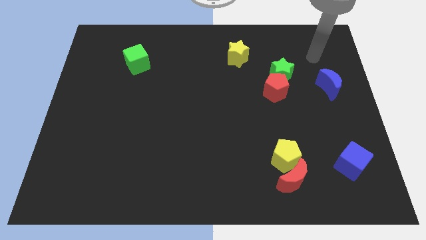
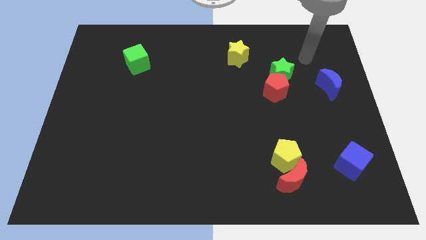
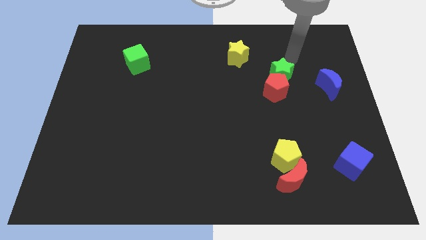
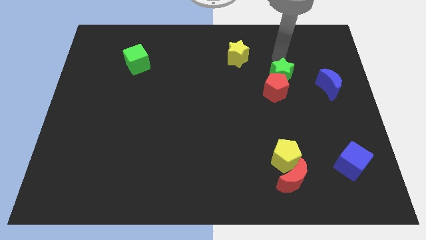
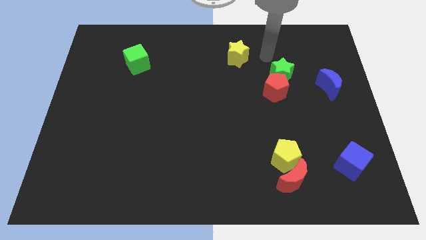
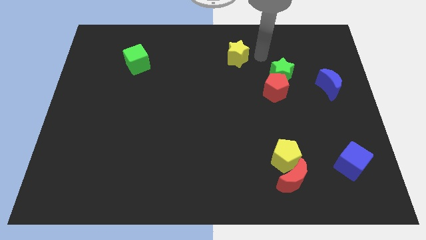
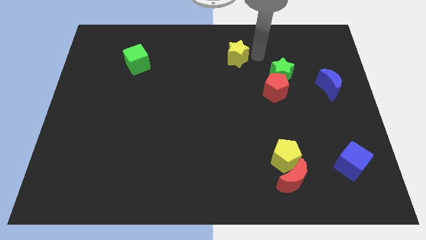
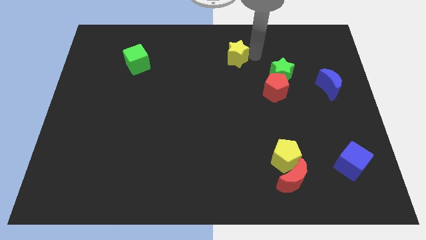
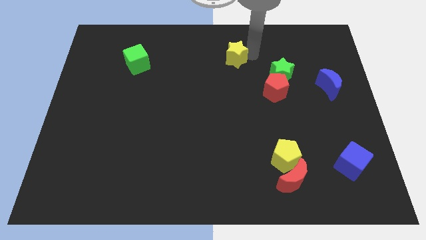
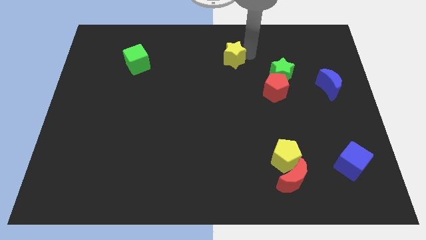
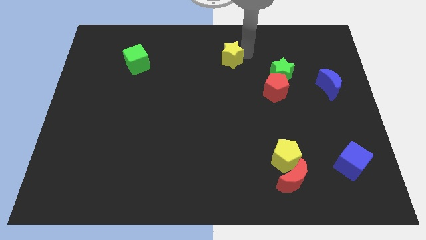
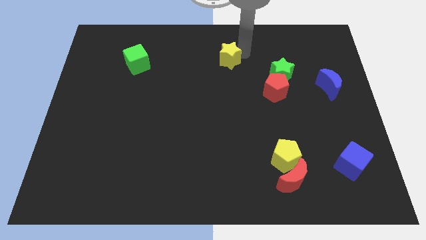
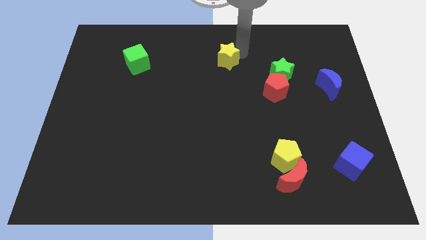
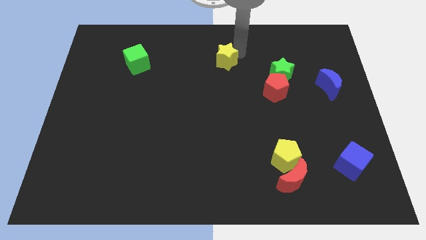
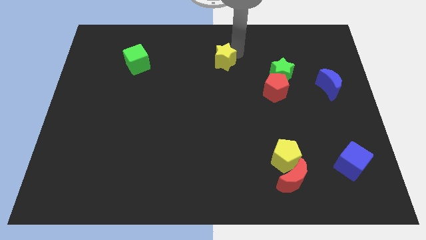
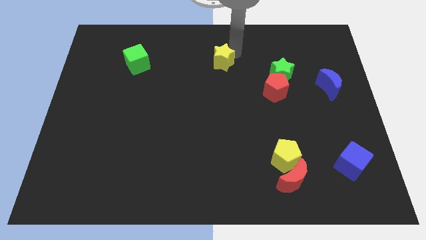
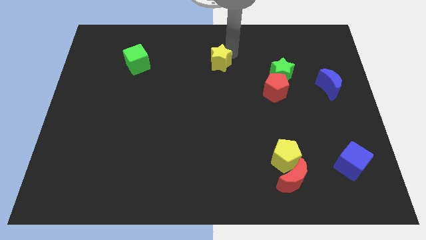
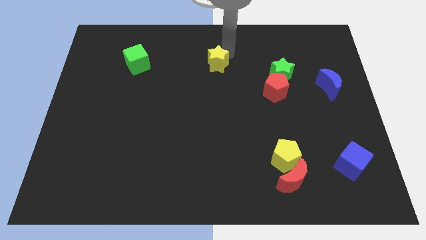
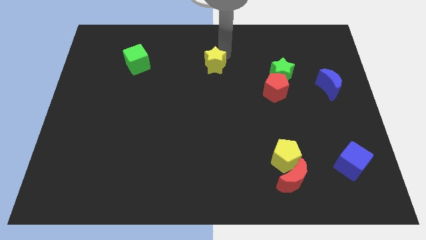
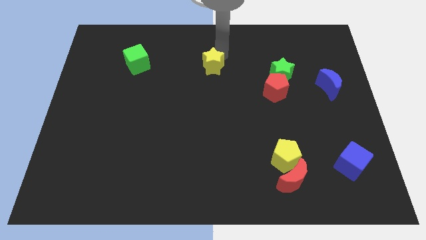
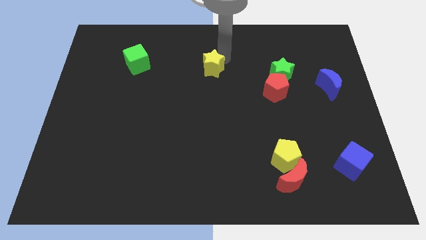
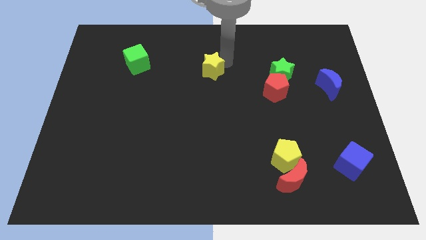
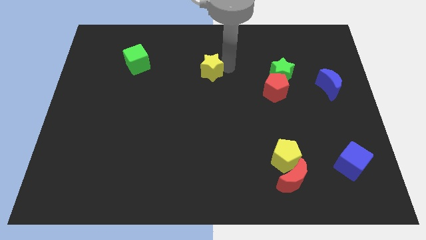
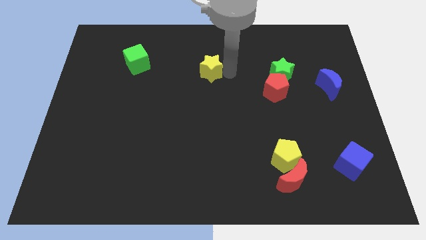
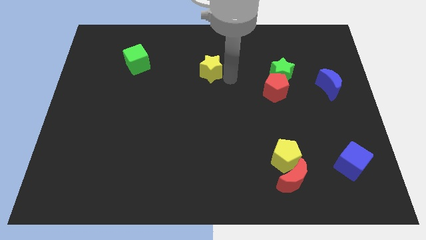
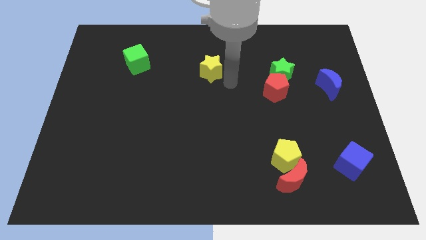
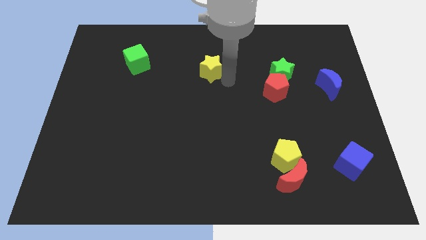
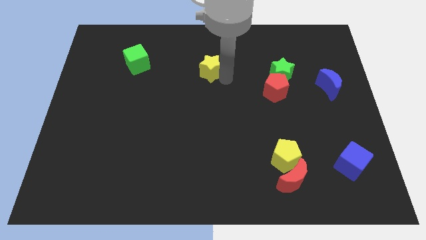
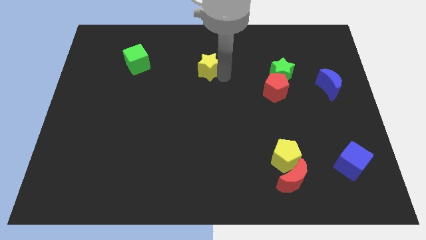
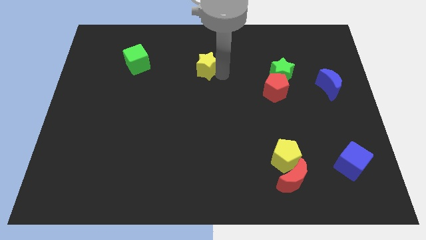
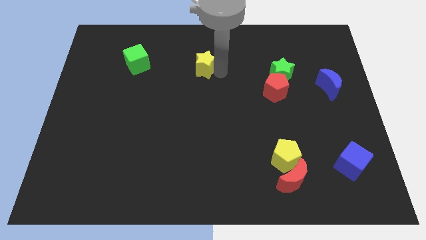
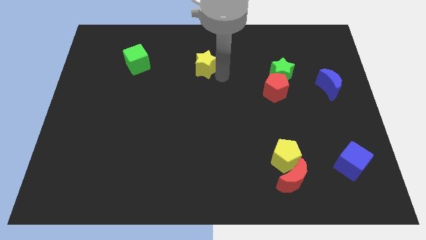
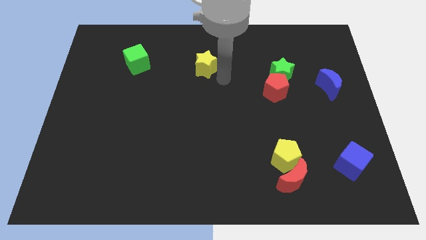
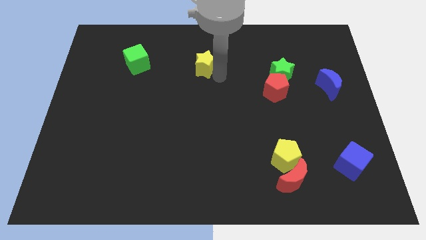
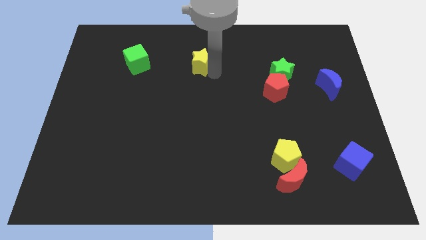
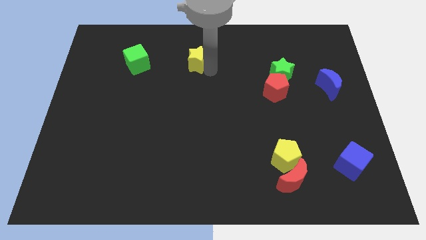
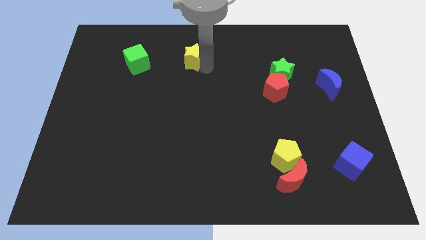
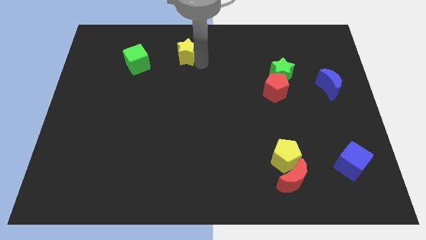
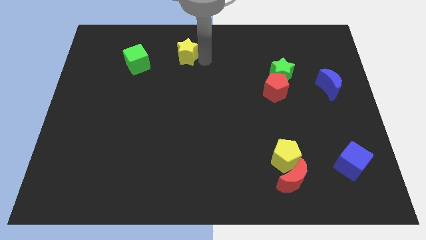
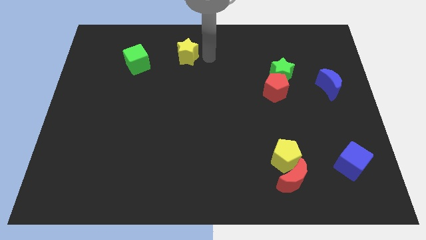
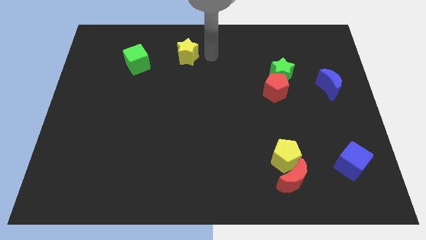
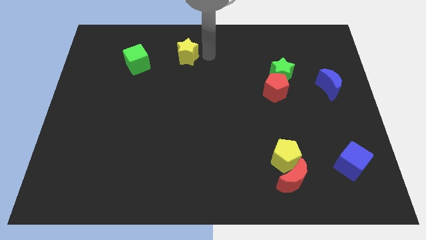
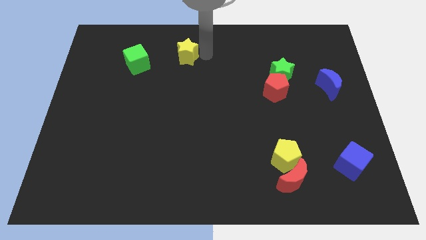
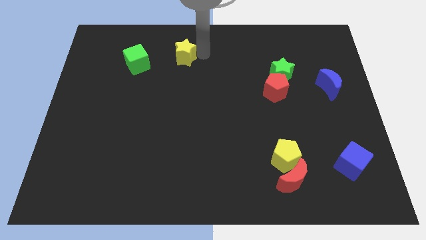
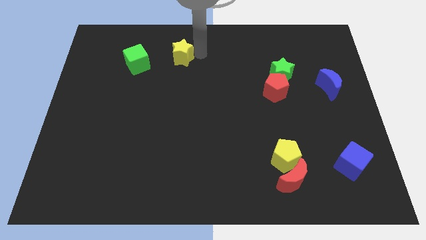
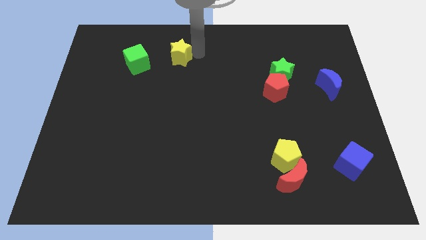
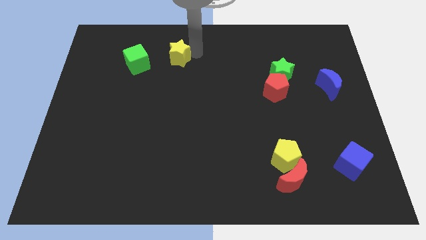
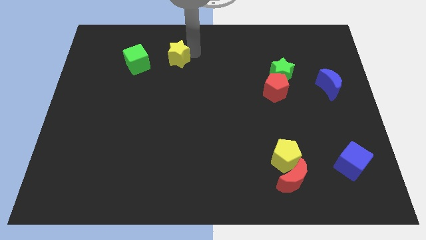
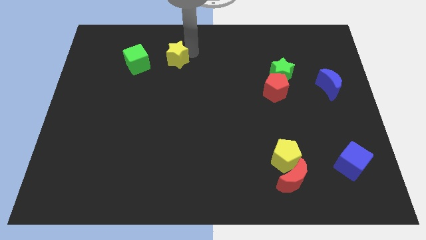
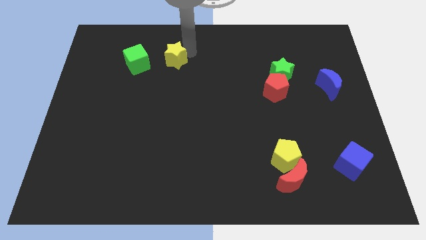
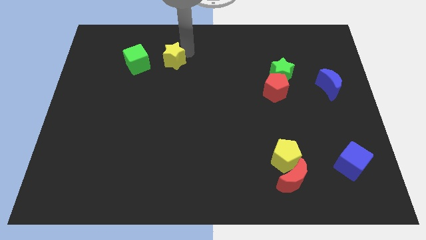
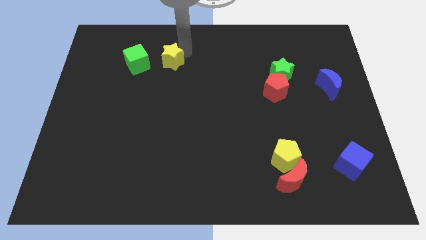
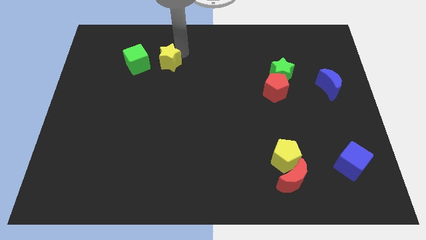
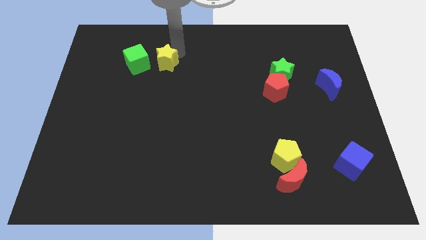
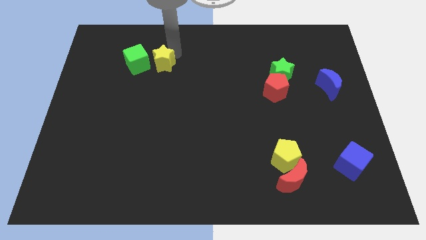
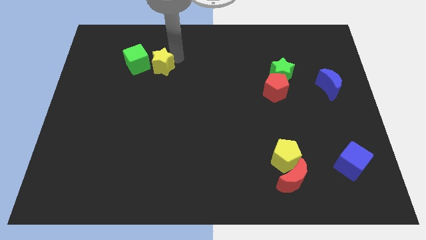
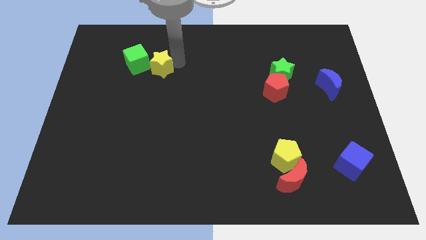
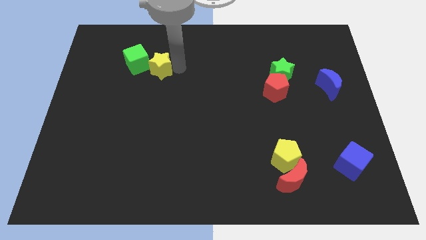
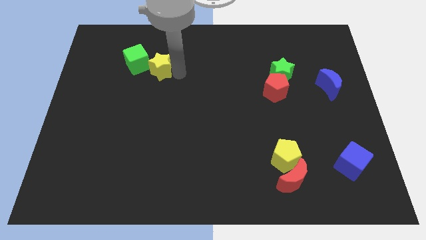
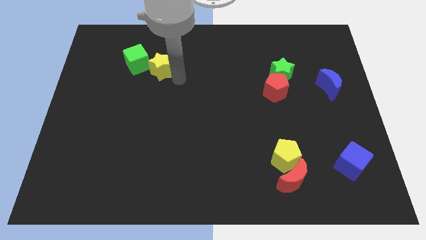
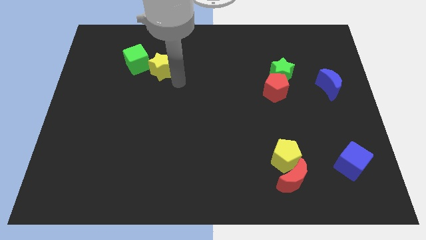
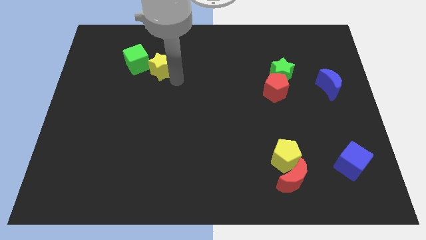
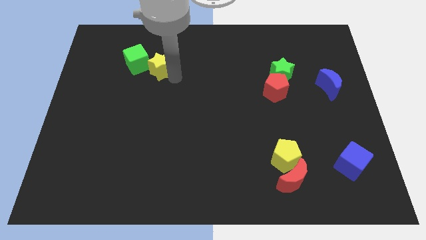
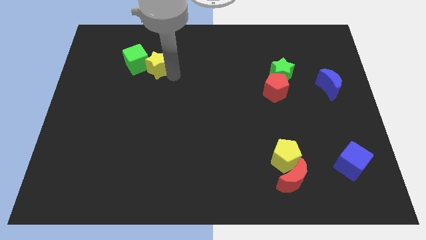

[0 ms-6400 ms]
move the yellow star to the left

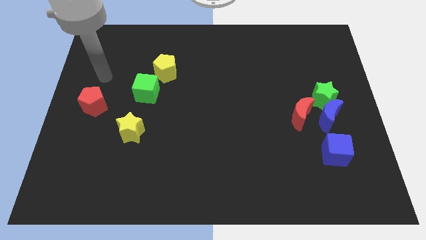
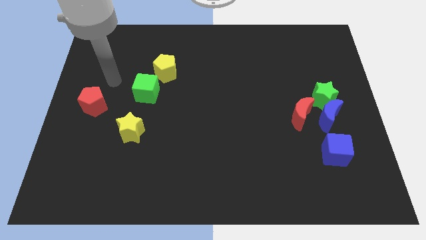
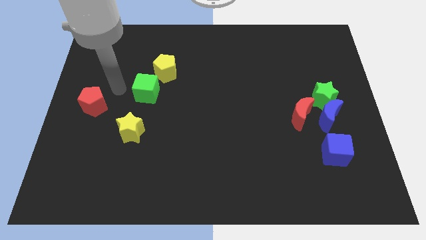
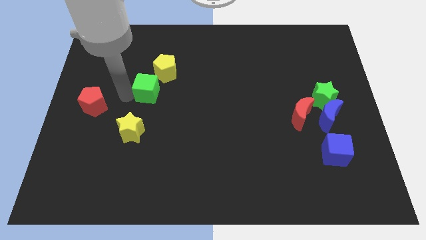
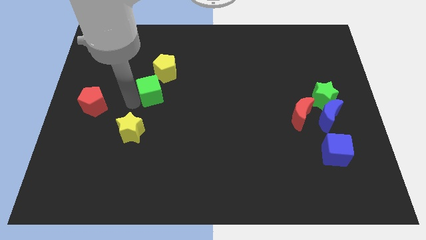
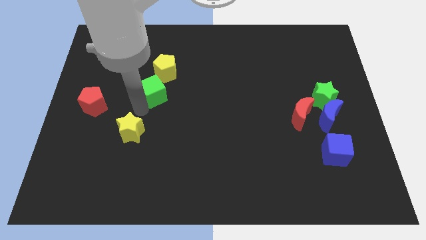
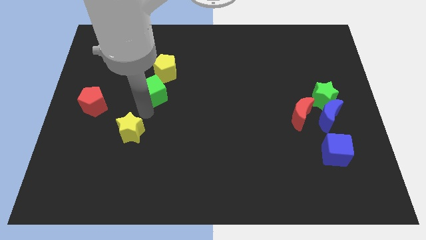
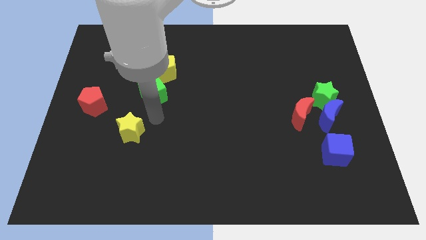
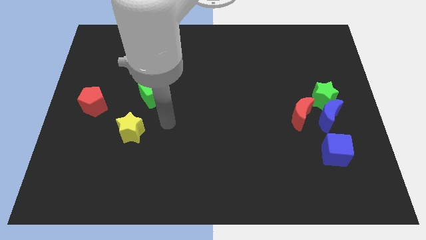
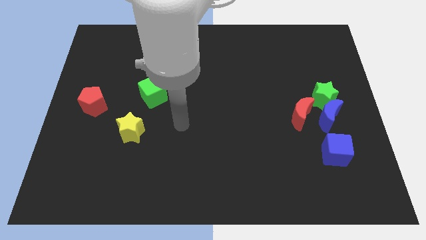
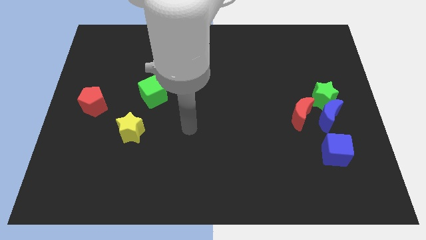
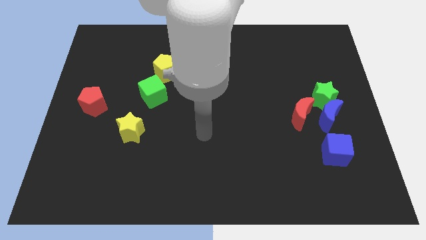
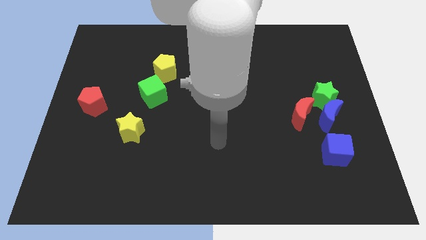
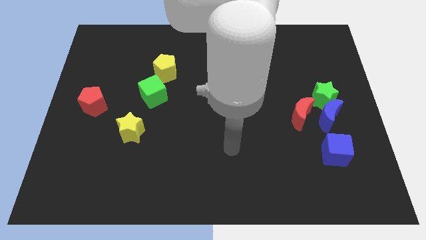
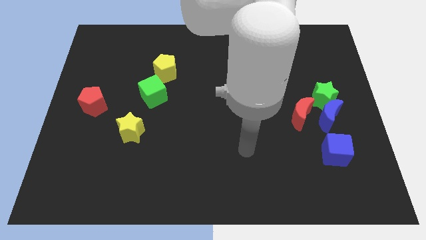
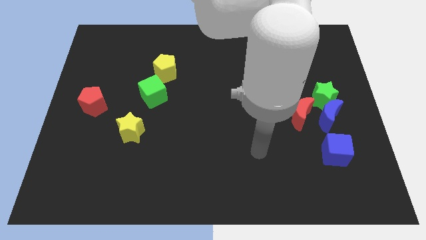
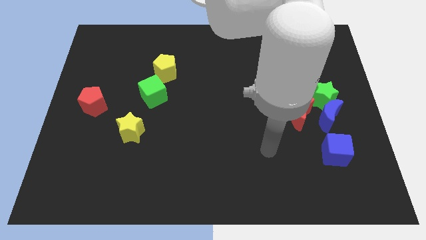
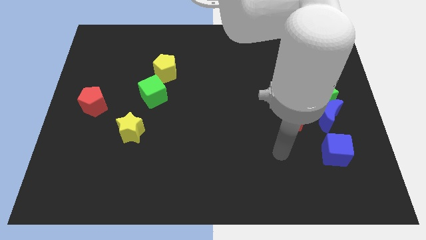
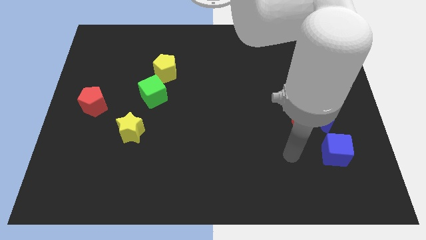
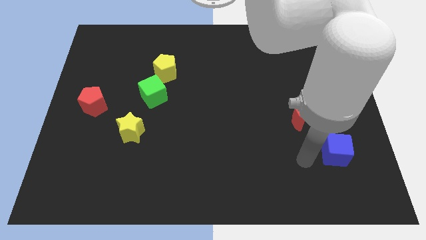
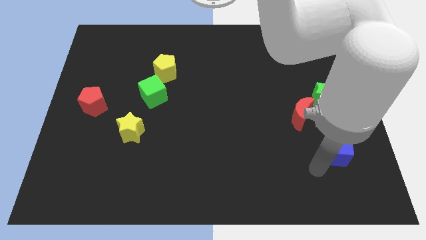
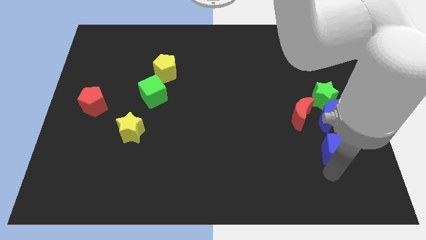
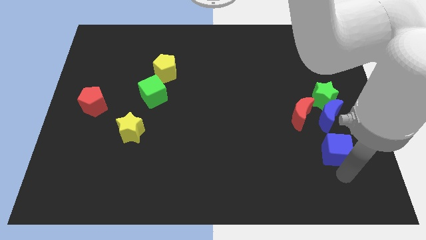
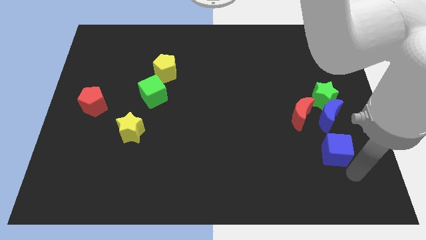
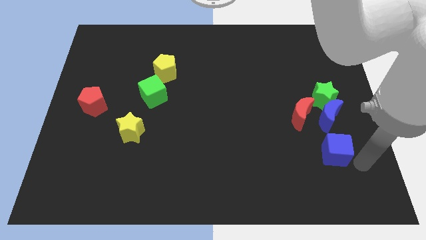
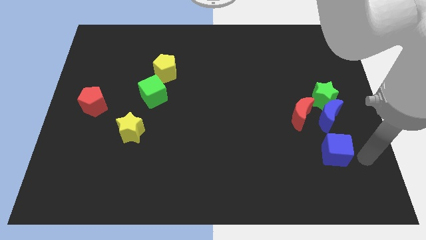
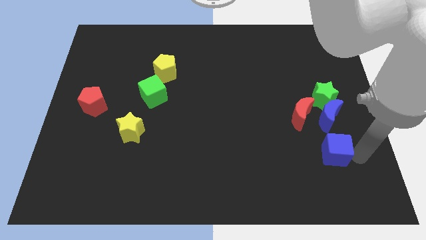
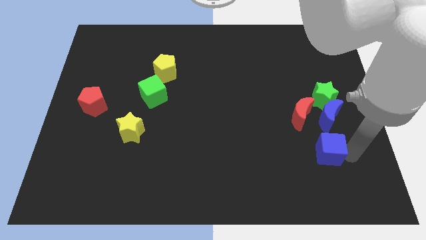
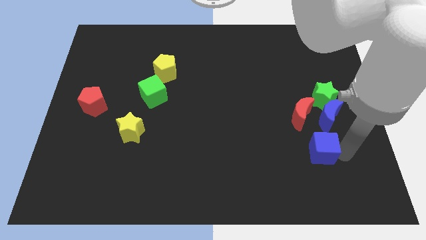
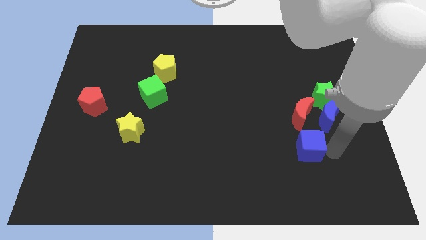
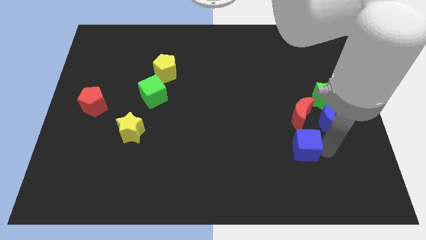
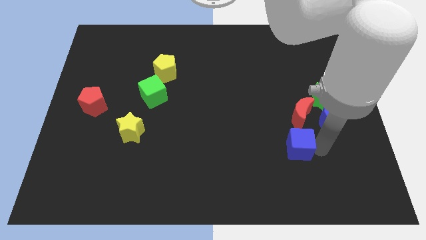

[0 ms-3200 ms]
move the blue cube left somewhat
